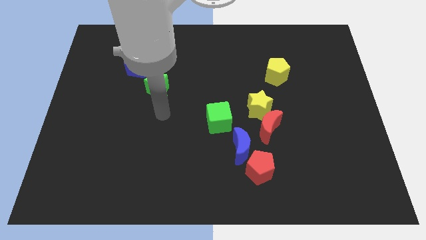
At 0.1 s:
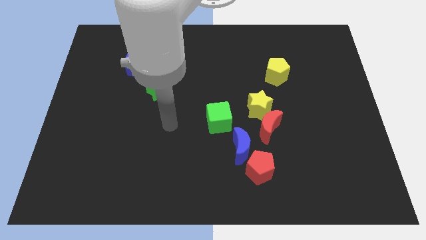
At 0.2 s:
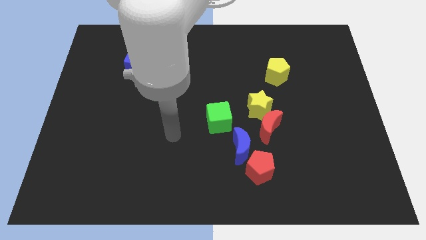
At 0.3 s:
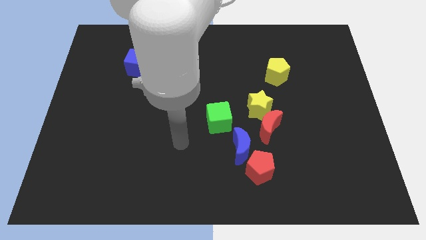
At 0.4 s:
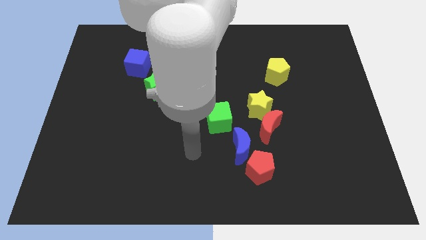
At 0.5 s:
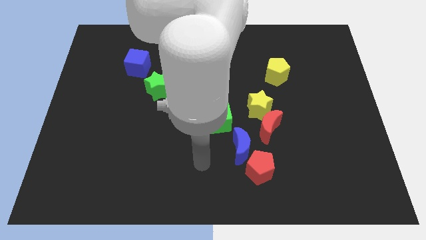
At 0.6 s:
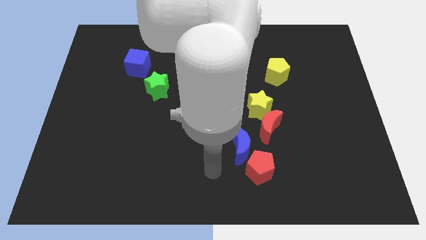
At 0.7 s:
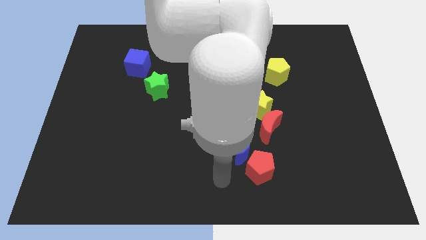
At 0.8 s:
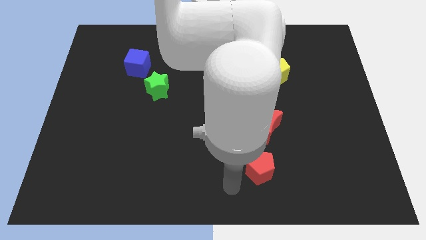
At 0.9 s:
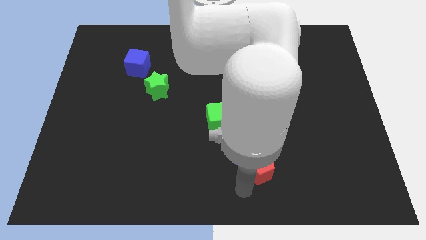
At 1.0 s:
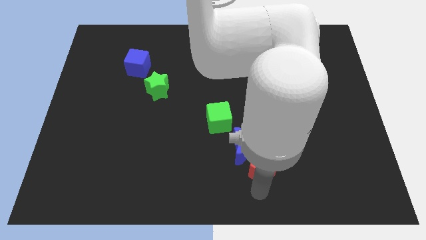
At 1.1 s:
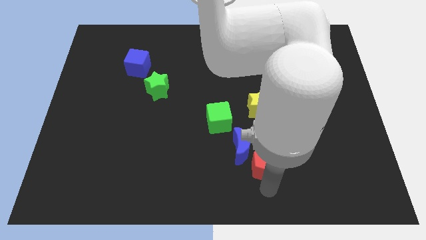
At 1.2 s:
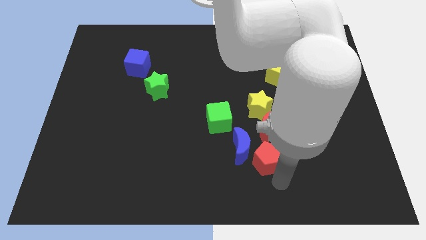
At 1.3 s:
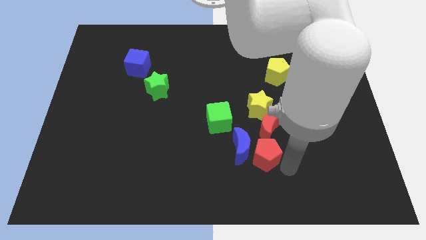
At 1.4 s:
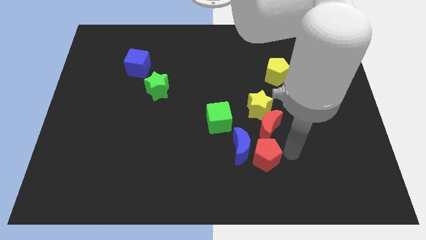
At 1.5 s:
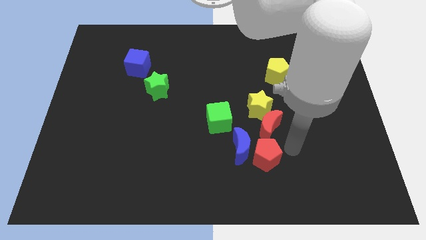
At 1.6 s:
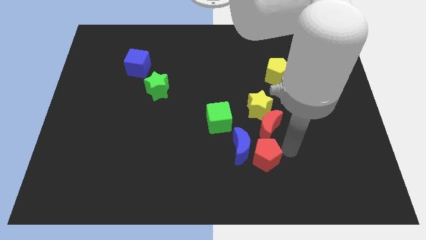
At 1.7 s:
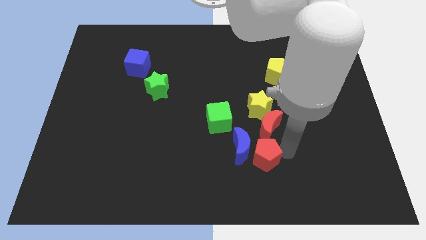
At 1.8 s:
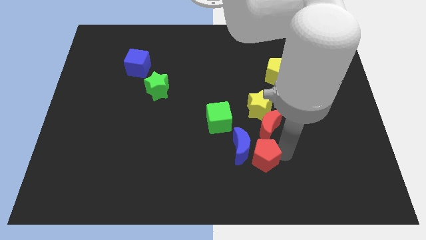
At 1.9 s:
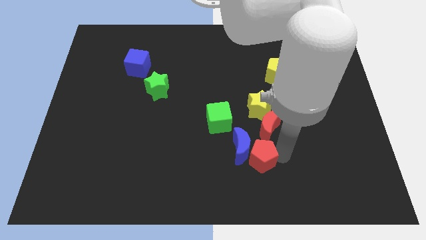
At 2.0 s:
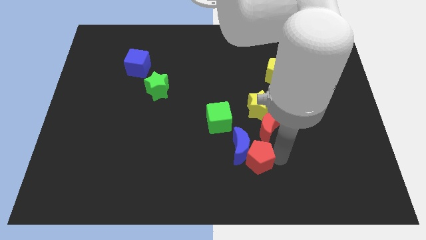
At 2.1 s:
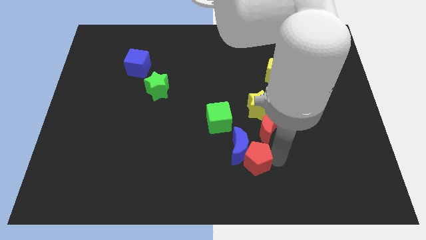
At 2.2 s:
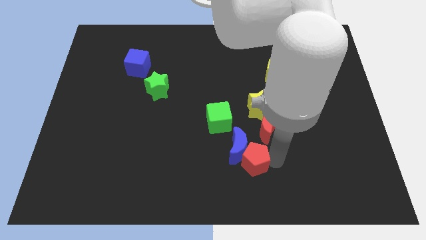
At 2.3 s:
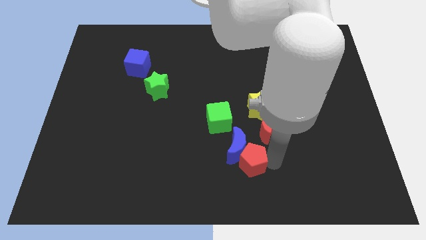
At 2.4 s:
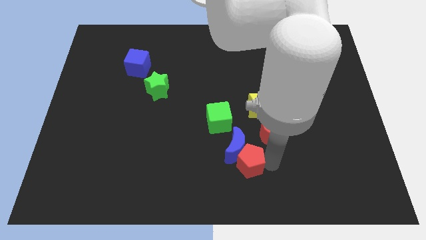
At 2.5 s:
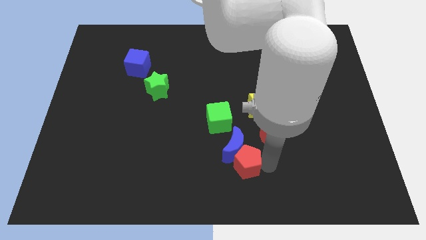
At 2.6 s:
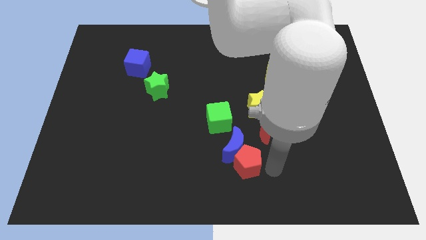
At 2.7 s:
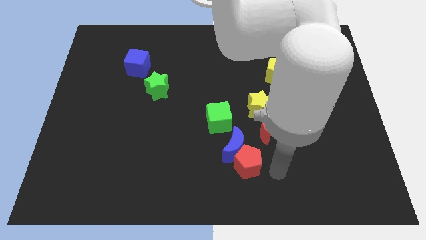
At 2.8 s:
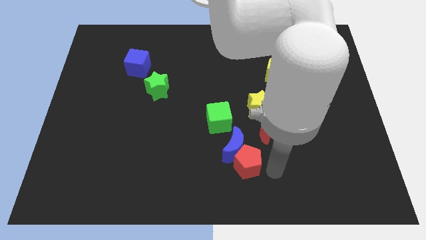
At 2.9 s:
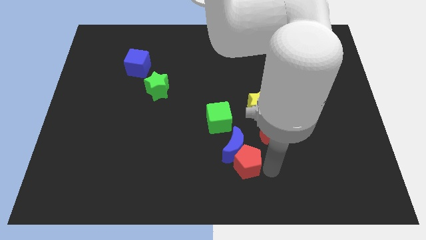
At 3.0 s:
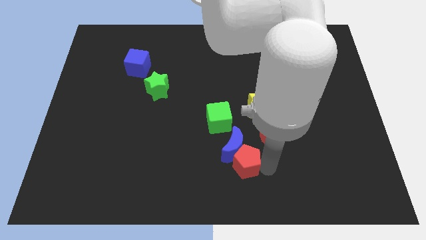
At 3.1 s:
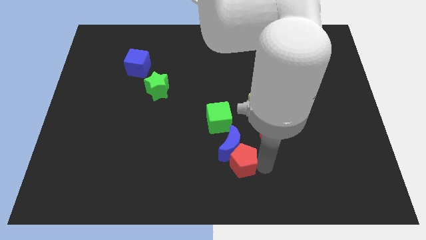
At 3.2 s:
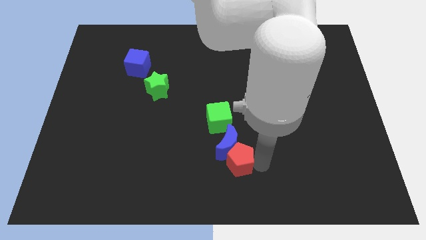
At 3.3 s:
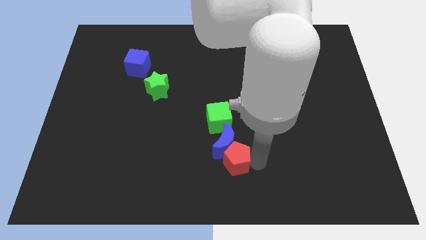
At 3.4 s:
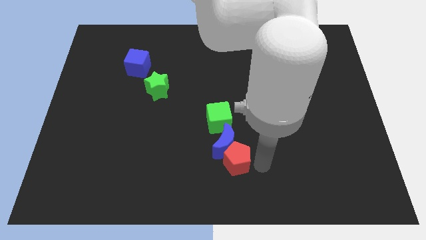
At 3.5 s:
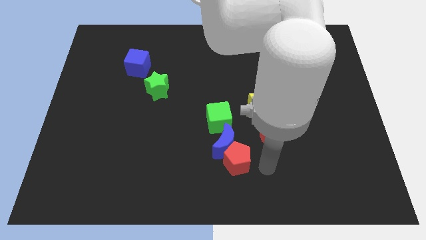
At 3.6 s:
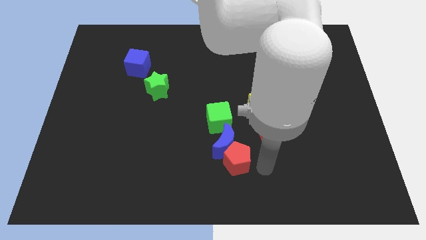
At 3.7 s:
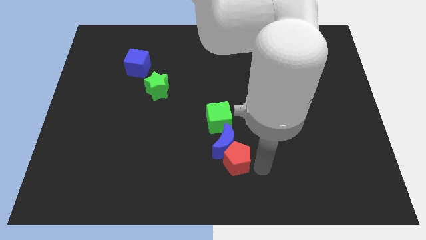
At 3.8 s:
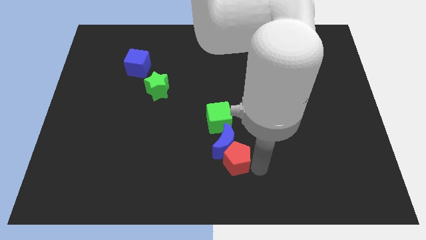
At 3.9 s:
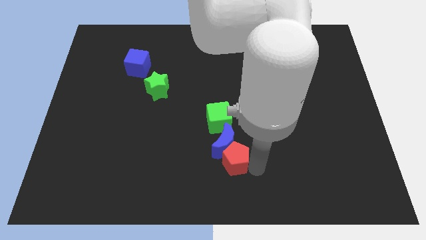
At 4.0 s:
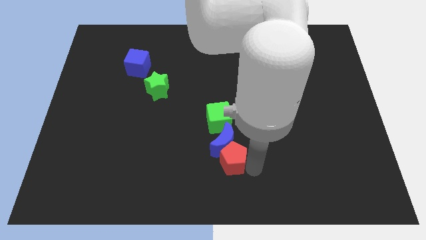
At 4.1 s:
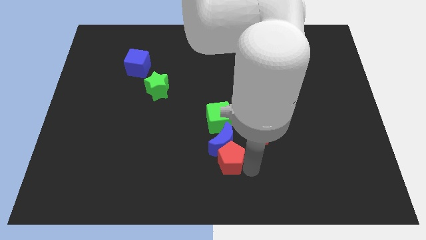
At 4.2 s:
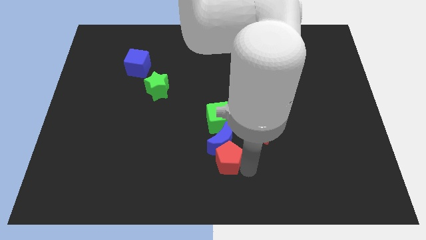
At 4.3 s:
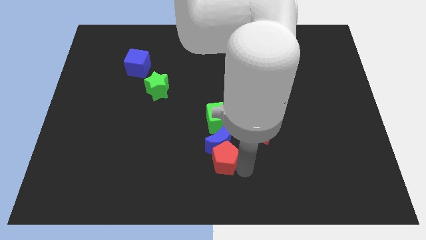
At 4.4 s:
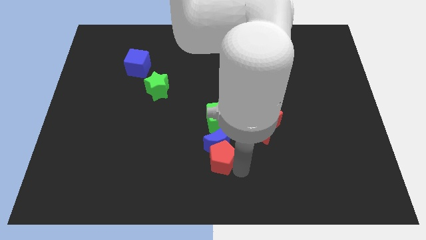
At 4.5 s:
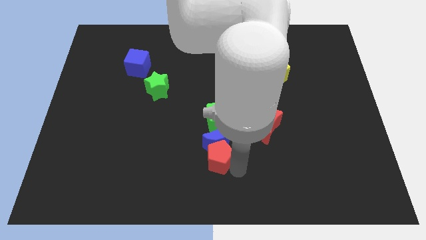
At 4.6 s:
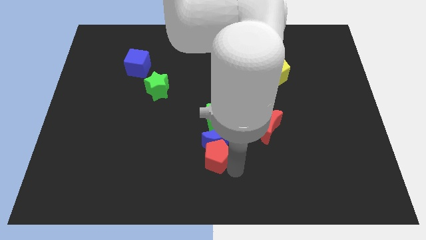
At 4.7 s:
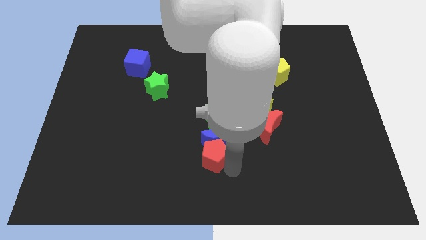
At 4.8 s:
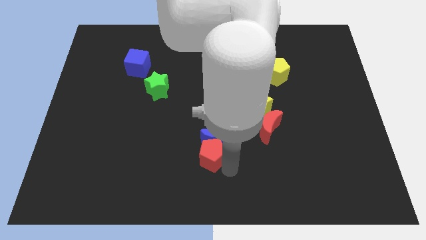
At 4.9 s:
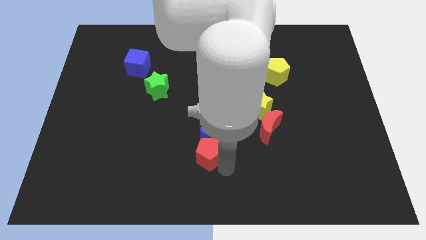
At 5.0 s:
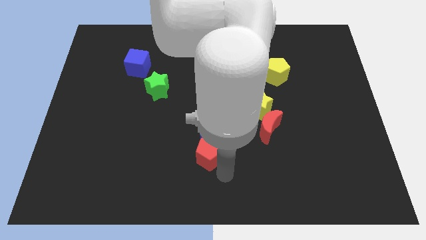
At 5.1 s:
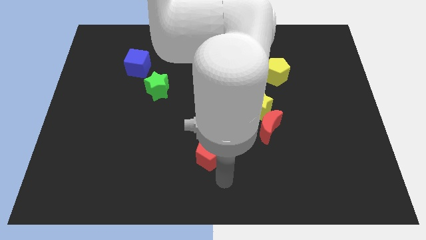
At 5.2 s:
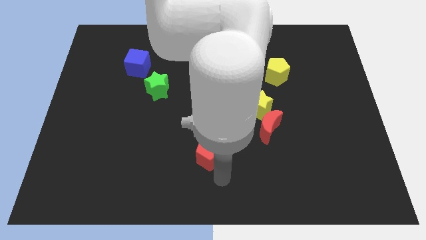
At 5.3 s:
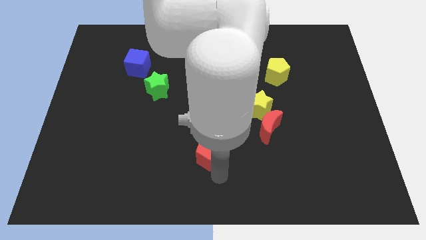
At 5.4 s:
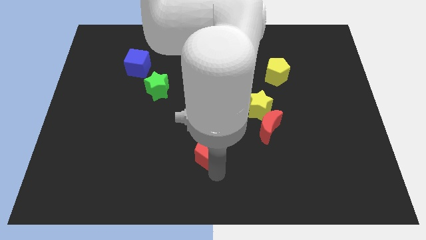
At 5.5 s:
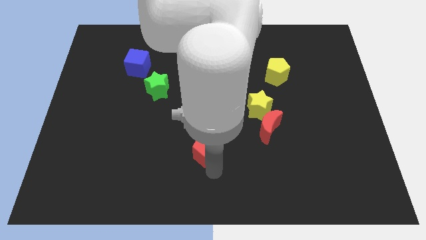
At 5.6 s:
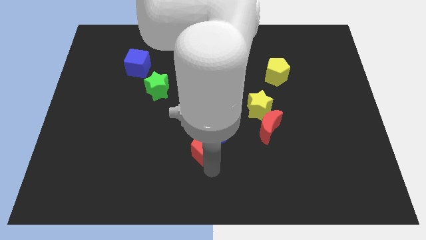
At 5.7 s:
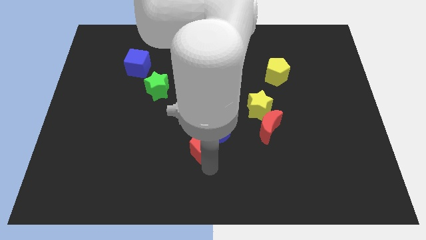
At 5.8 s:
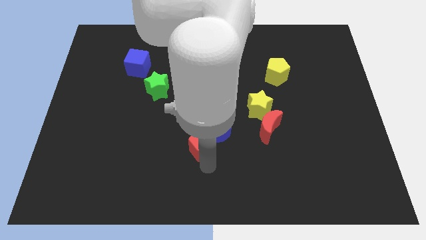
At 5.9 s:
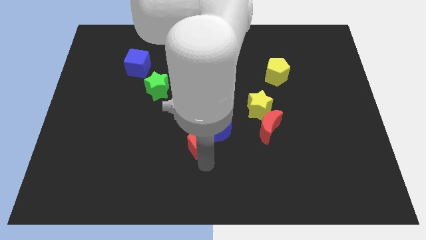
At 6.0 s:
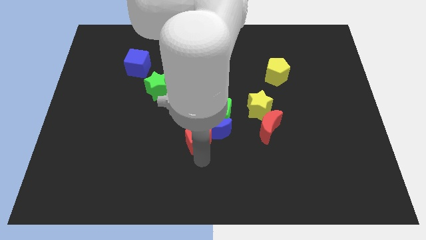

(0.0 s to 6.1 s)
move the red pentagon to the center

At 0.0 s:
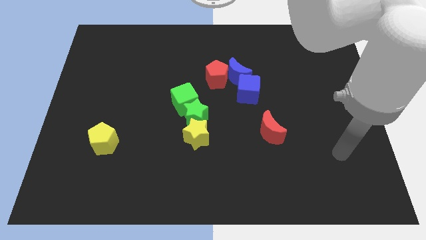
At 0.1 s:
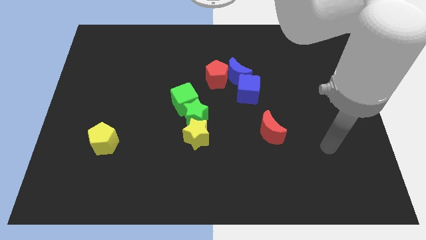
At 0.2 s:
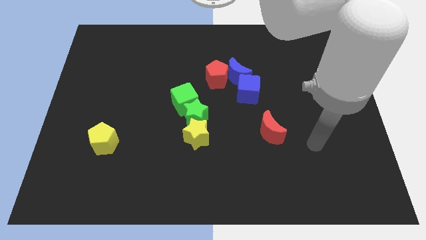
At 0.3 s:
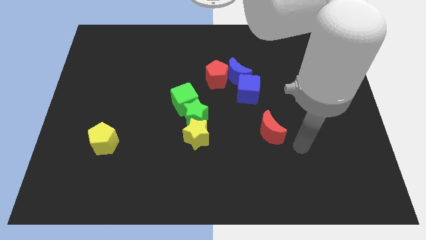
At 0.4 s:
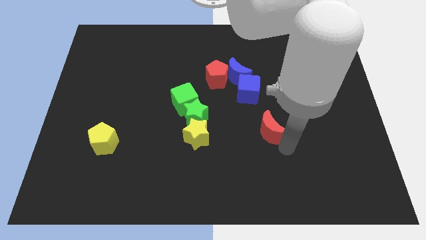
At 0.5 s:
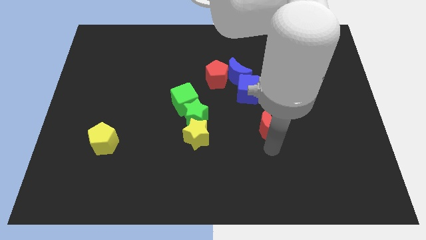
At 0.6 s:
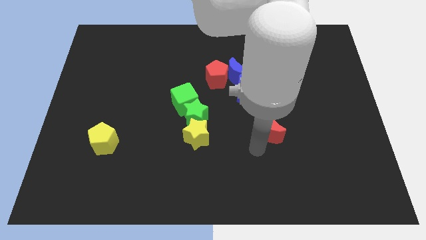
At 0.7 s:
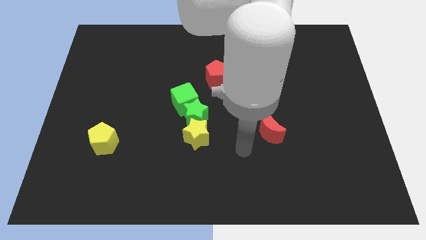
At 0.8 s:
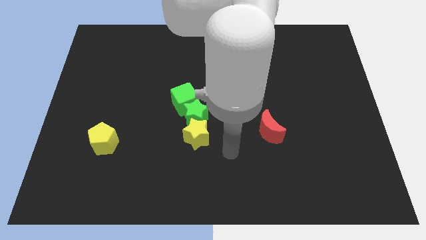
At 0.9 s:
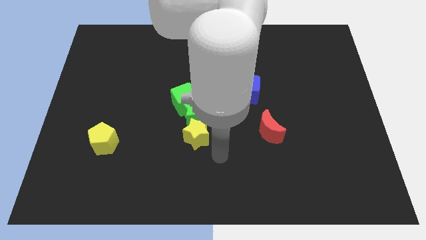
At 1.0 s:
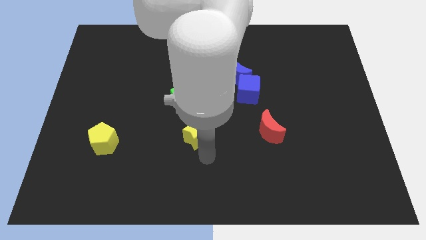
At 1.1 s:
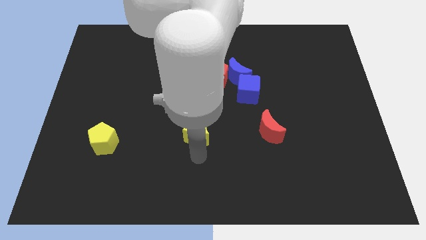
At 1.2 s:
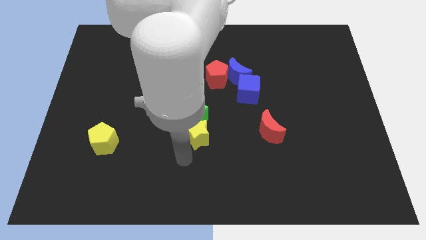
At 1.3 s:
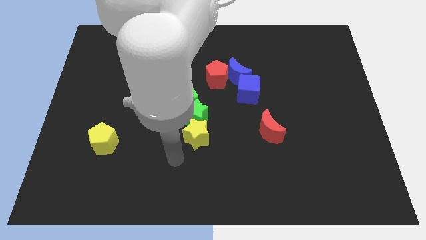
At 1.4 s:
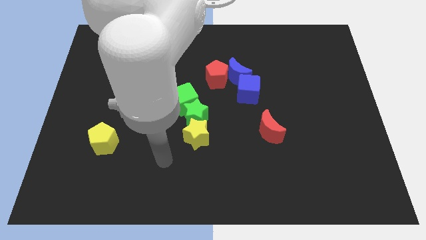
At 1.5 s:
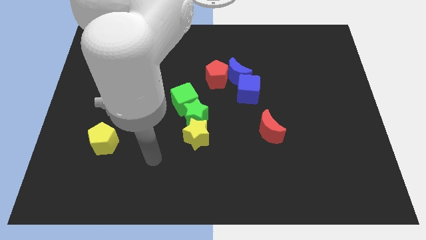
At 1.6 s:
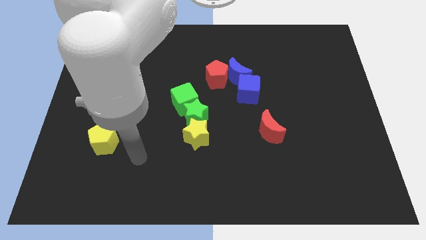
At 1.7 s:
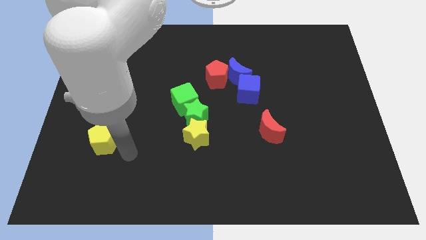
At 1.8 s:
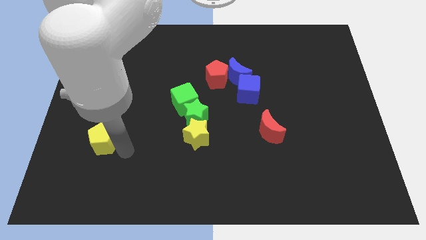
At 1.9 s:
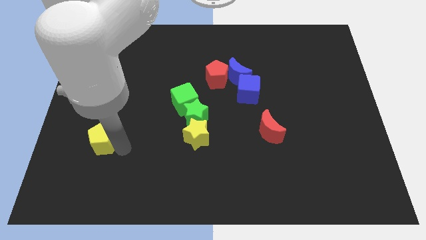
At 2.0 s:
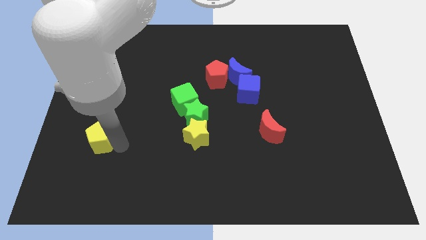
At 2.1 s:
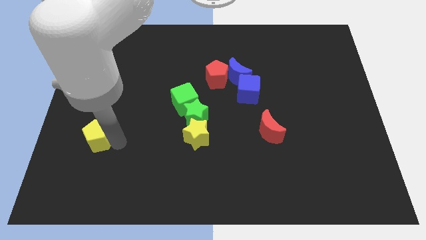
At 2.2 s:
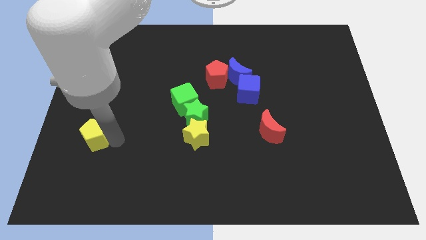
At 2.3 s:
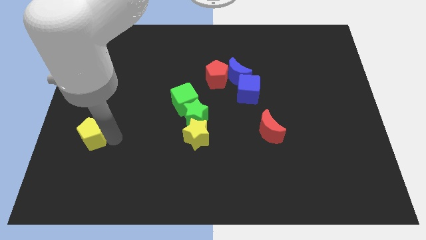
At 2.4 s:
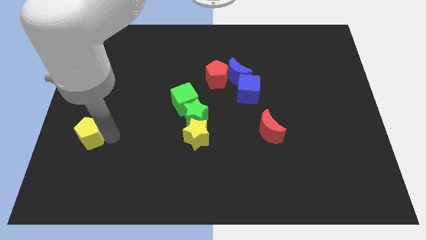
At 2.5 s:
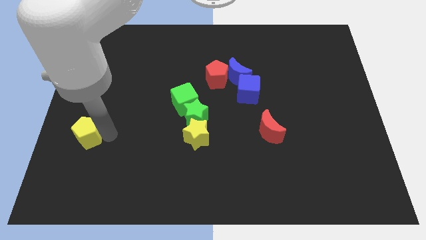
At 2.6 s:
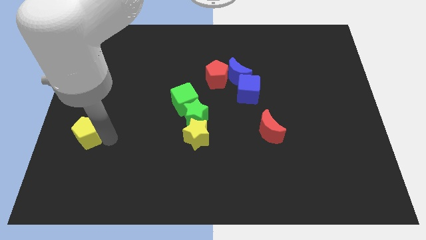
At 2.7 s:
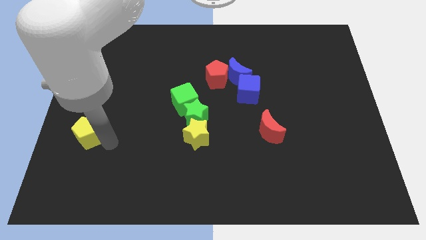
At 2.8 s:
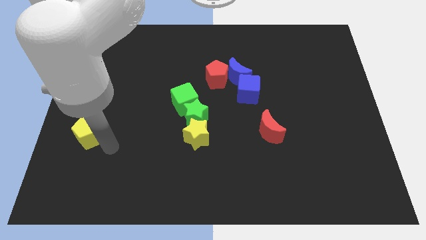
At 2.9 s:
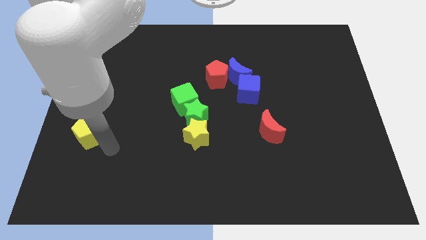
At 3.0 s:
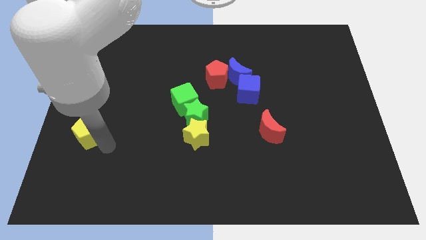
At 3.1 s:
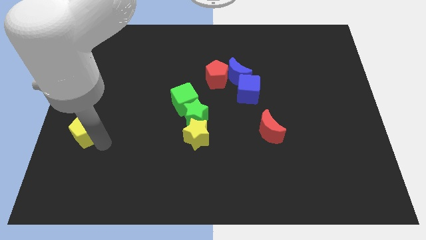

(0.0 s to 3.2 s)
push the yellow pentagon to the left side
